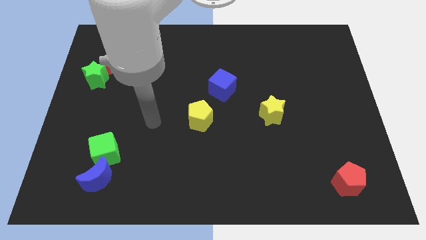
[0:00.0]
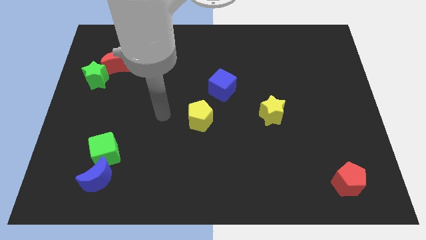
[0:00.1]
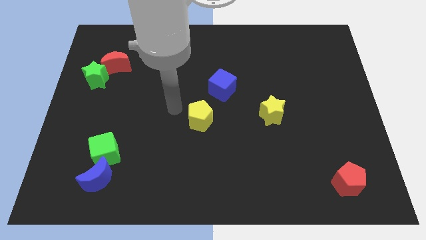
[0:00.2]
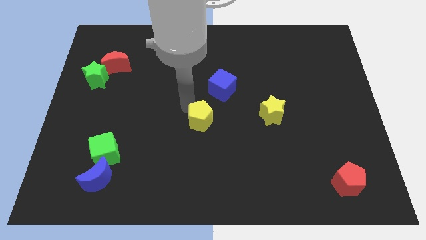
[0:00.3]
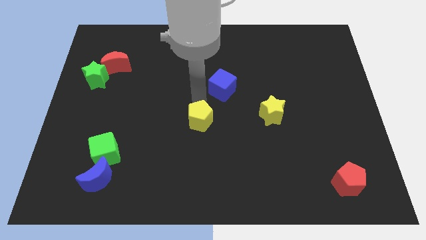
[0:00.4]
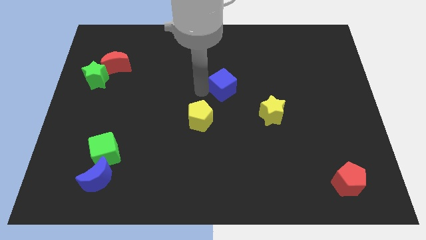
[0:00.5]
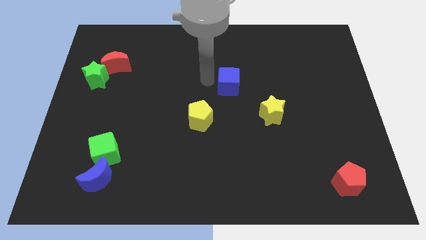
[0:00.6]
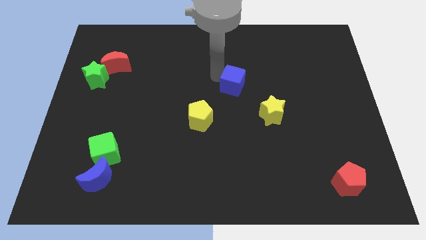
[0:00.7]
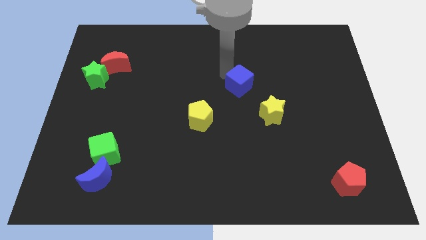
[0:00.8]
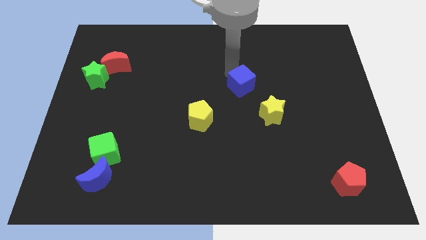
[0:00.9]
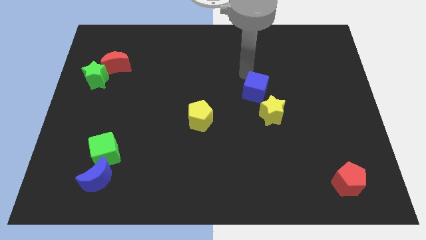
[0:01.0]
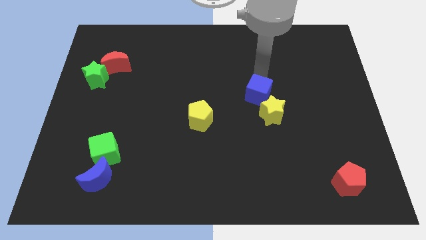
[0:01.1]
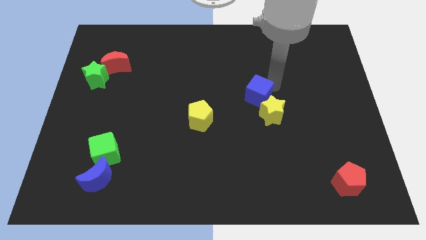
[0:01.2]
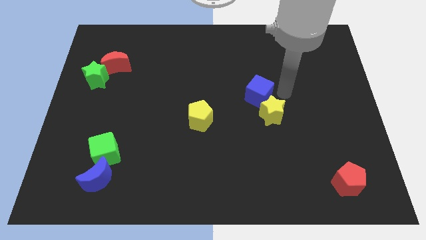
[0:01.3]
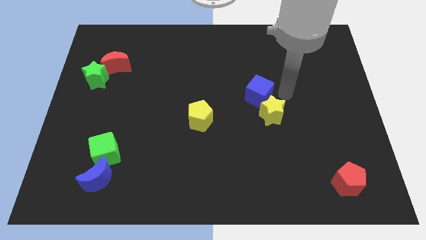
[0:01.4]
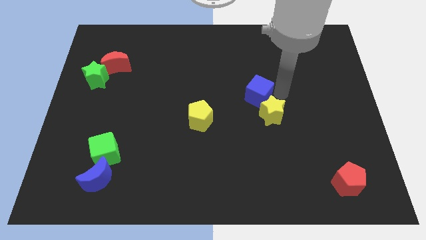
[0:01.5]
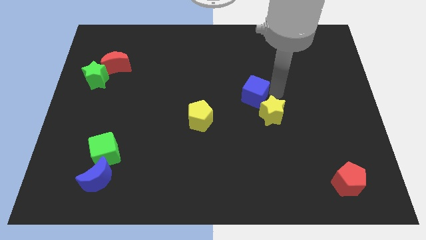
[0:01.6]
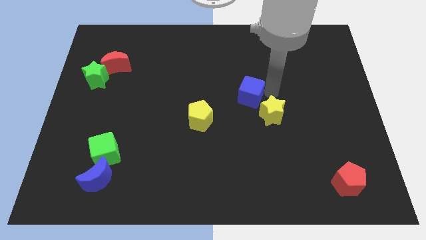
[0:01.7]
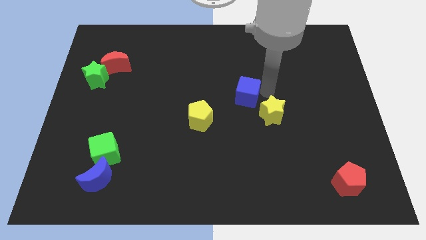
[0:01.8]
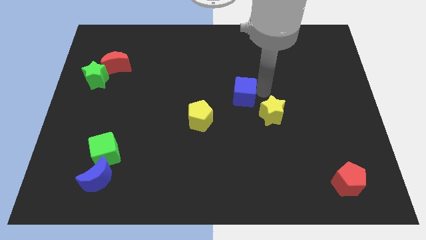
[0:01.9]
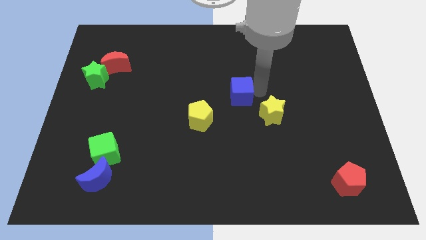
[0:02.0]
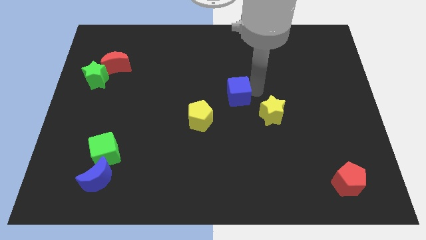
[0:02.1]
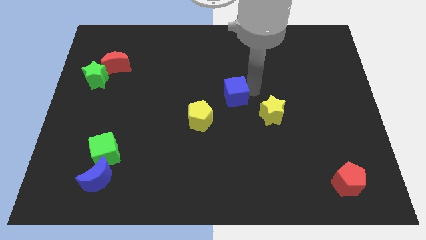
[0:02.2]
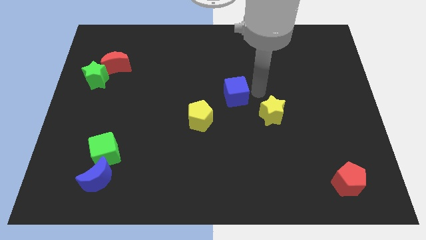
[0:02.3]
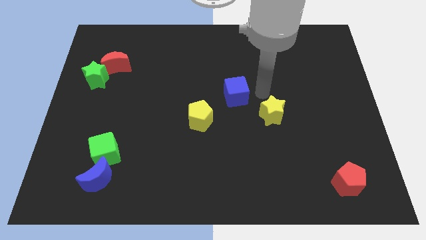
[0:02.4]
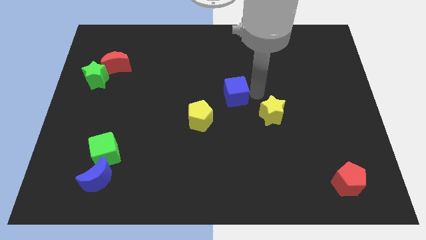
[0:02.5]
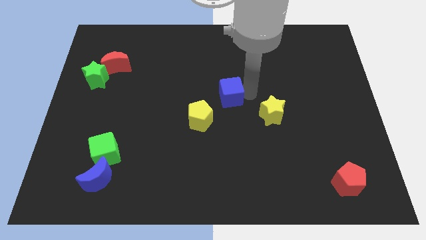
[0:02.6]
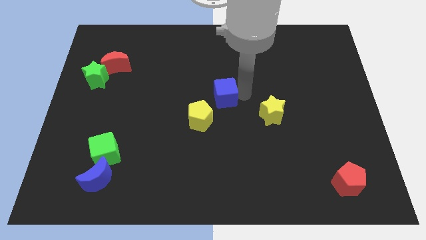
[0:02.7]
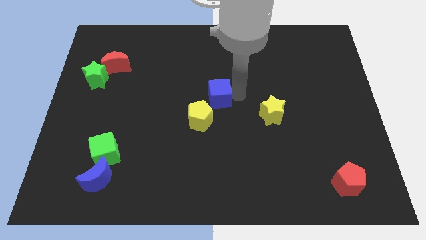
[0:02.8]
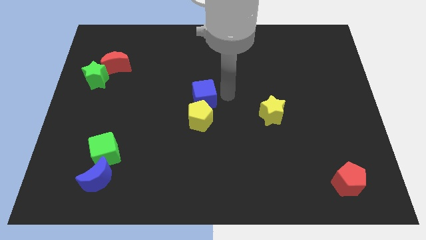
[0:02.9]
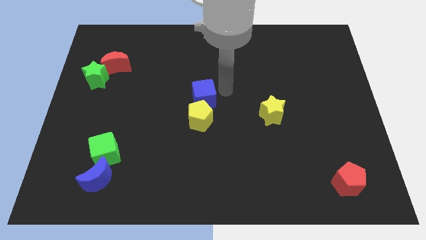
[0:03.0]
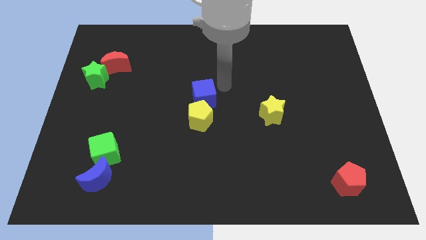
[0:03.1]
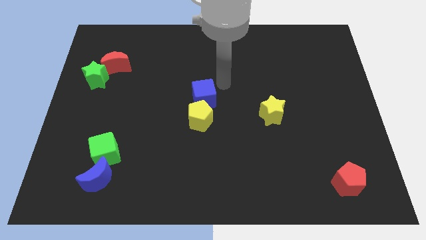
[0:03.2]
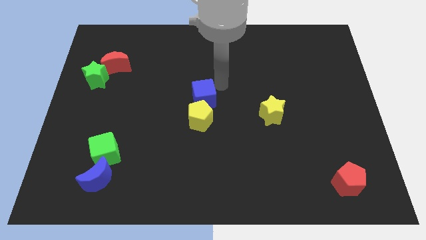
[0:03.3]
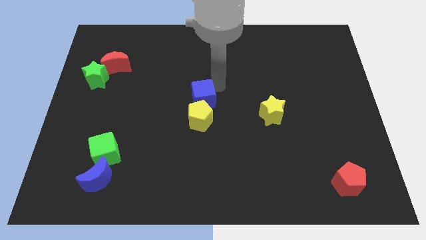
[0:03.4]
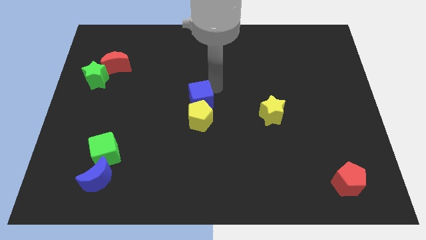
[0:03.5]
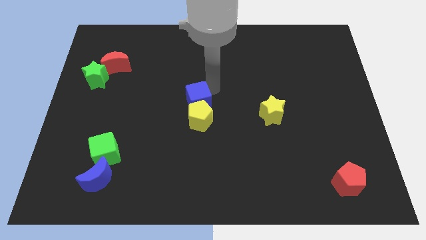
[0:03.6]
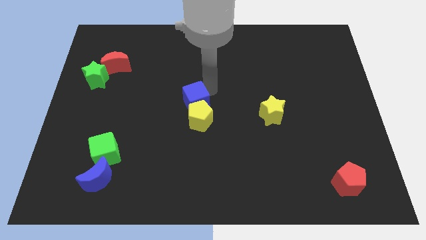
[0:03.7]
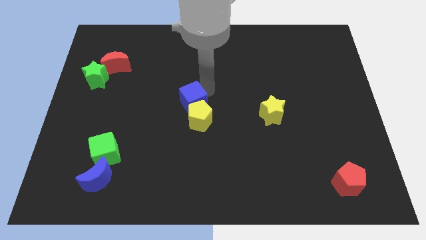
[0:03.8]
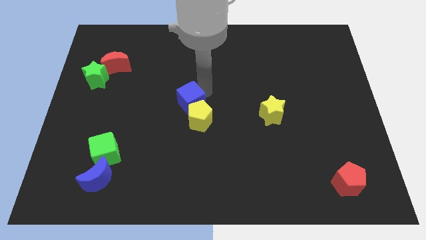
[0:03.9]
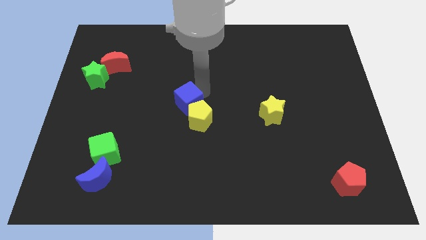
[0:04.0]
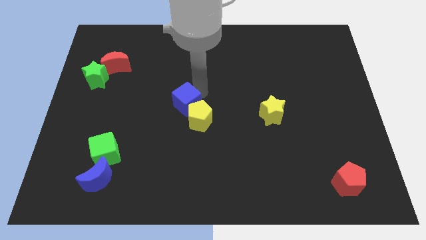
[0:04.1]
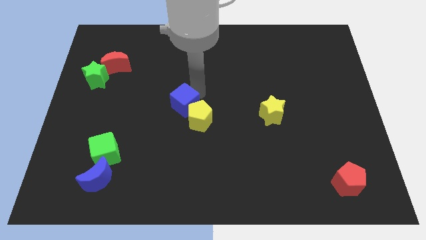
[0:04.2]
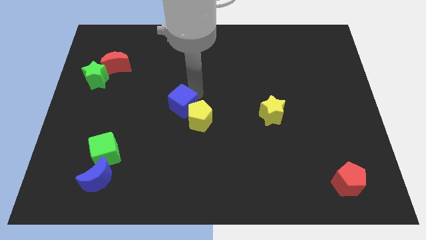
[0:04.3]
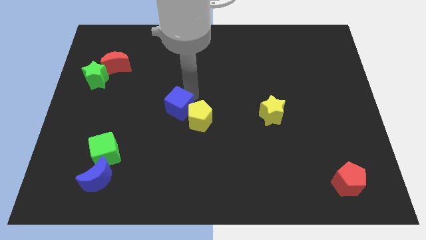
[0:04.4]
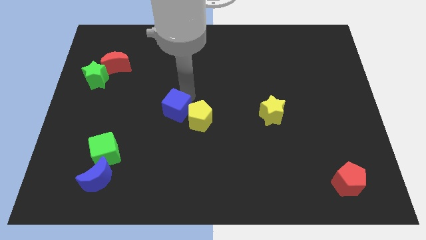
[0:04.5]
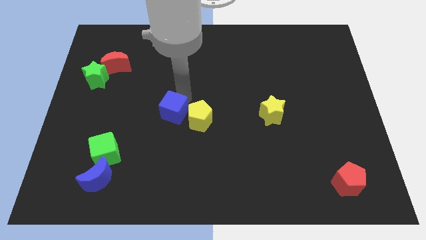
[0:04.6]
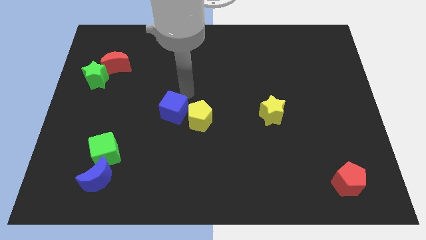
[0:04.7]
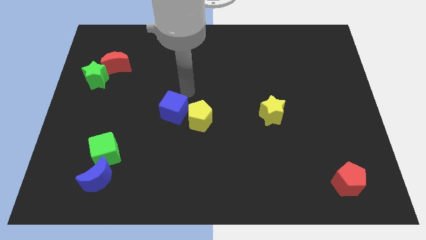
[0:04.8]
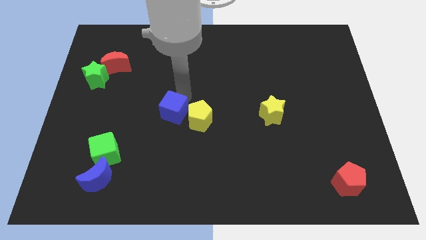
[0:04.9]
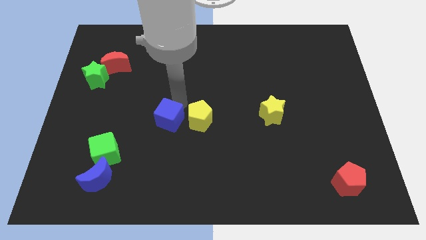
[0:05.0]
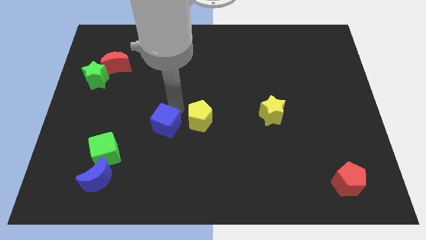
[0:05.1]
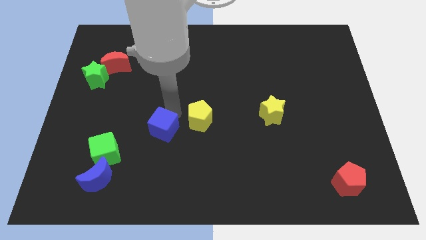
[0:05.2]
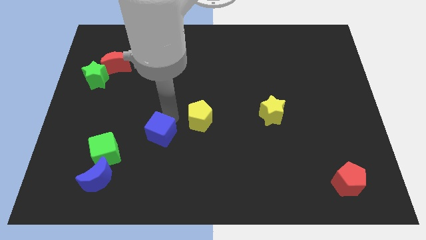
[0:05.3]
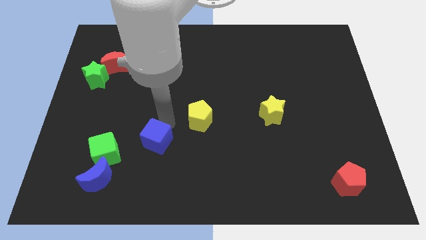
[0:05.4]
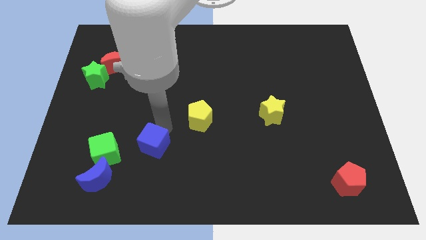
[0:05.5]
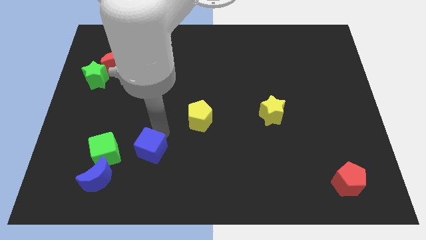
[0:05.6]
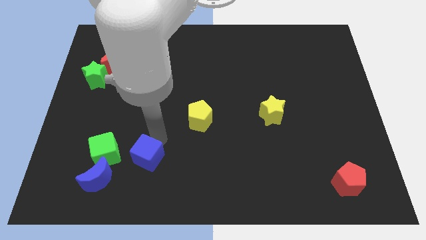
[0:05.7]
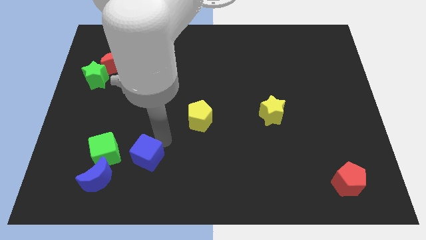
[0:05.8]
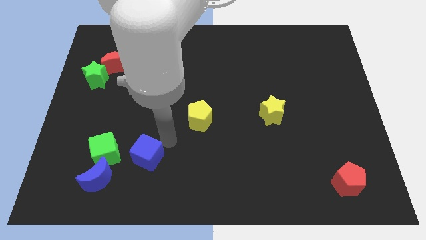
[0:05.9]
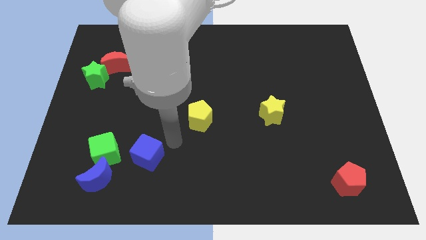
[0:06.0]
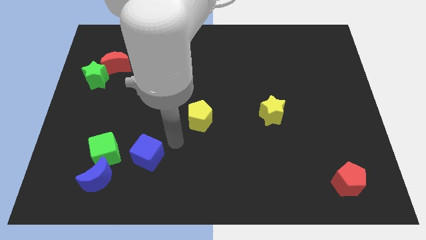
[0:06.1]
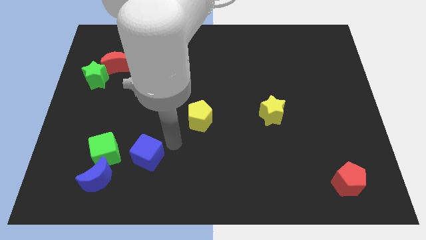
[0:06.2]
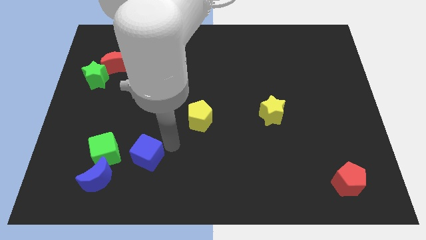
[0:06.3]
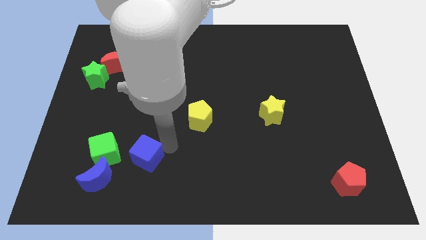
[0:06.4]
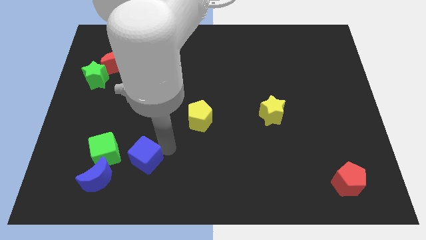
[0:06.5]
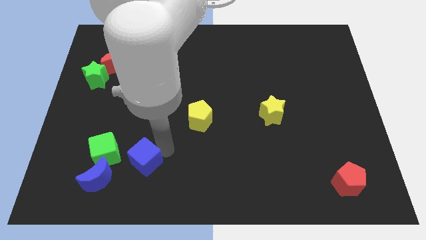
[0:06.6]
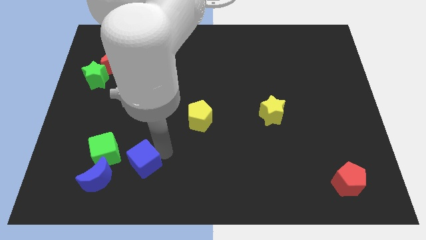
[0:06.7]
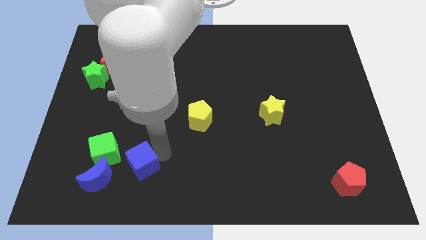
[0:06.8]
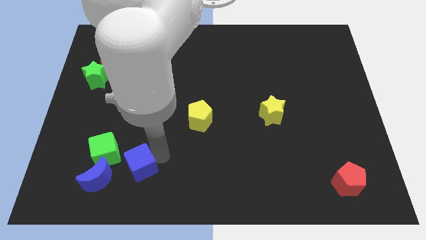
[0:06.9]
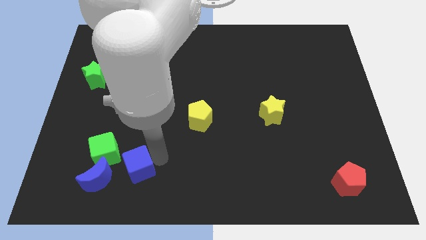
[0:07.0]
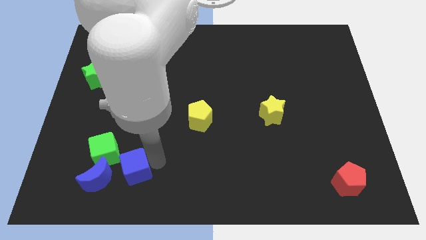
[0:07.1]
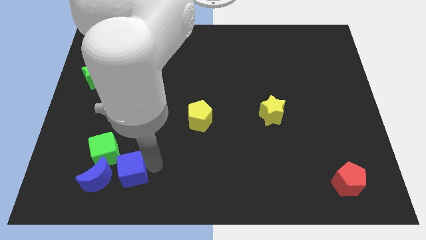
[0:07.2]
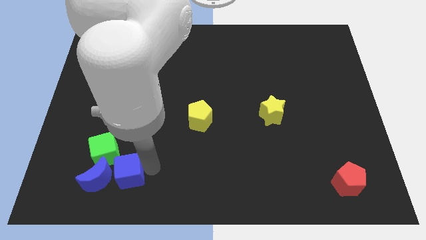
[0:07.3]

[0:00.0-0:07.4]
slide the blue cube to the blue moon

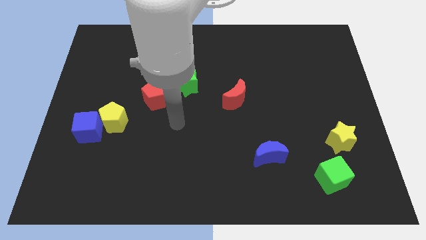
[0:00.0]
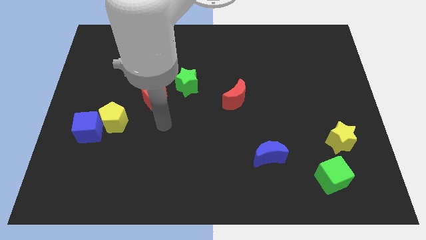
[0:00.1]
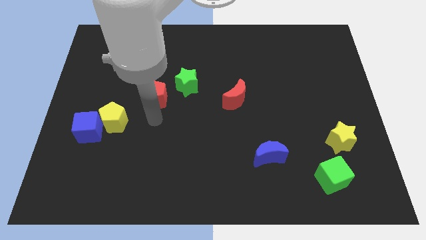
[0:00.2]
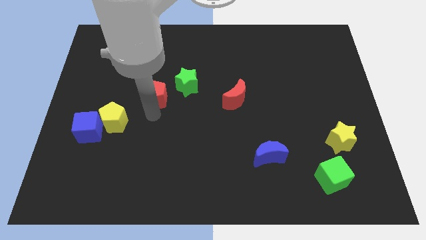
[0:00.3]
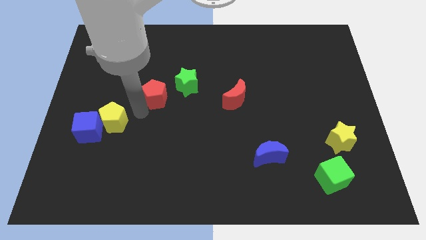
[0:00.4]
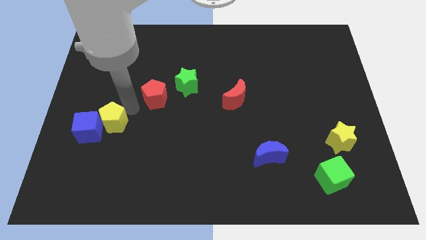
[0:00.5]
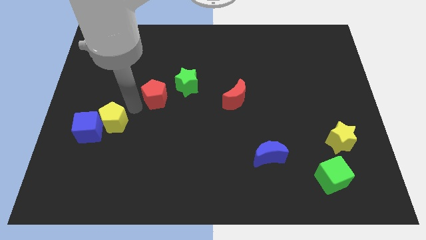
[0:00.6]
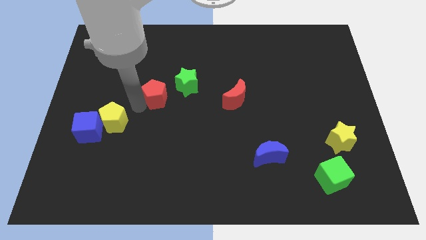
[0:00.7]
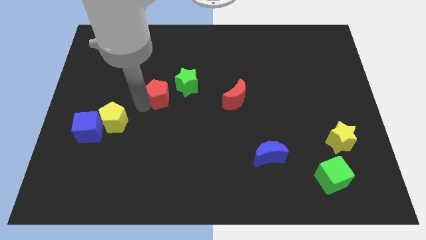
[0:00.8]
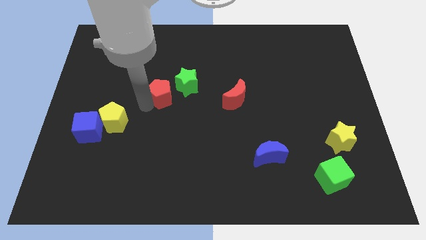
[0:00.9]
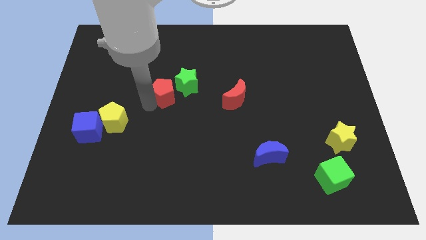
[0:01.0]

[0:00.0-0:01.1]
put the red pentagon next to the green star
